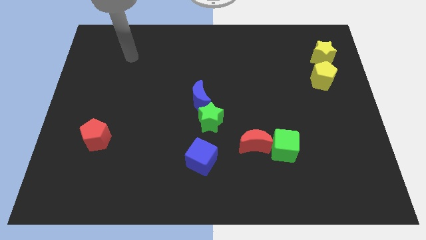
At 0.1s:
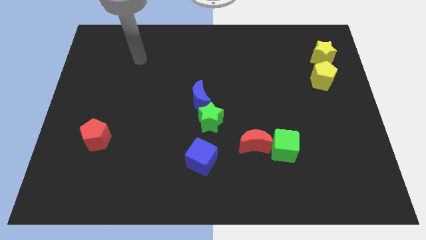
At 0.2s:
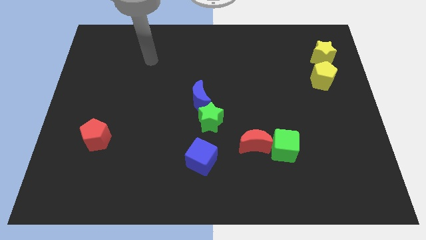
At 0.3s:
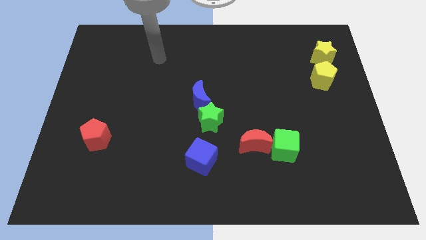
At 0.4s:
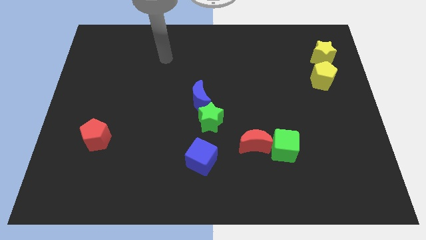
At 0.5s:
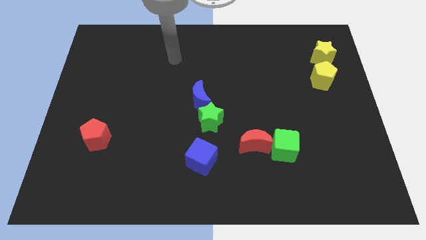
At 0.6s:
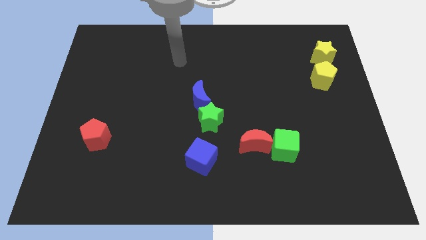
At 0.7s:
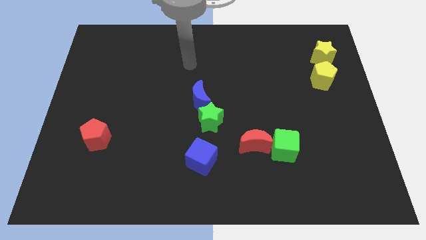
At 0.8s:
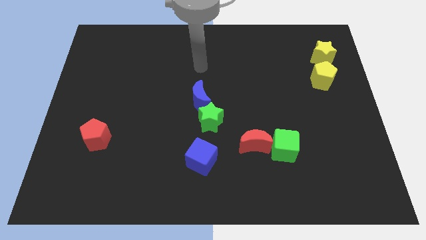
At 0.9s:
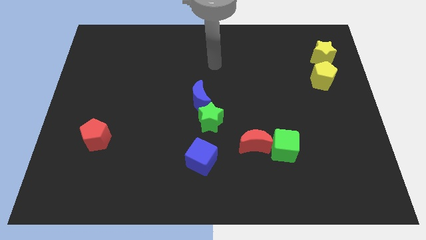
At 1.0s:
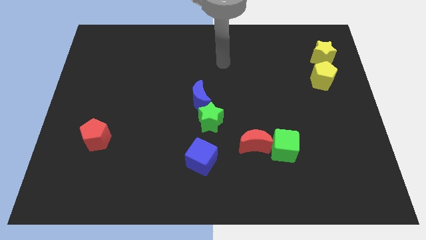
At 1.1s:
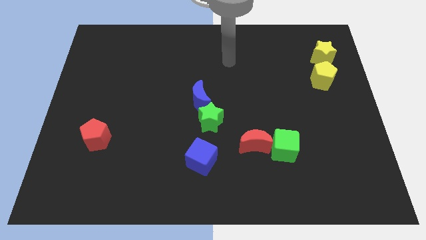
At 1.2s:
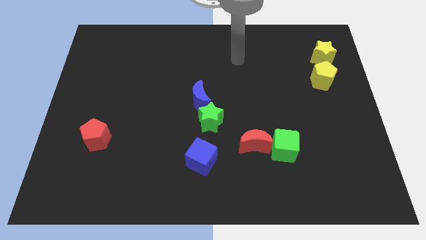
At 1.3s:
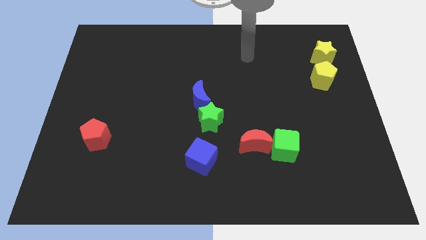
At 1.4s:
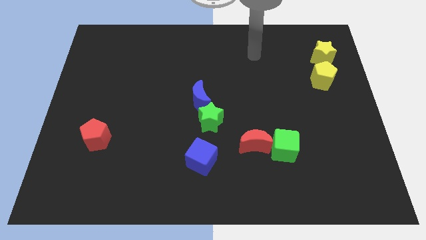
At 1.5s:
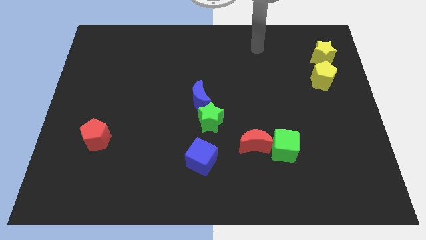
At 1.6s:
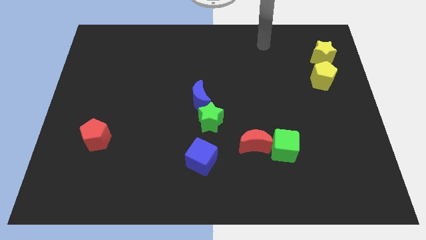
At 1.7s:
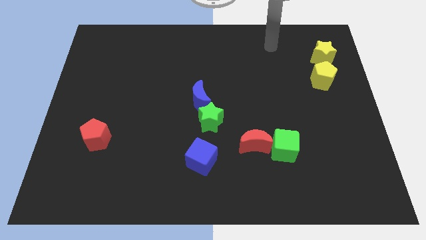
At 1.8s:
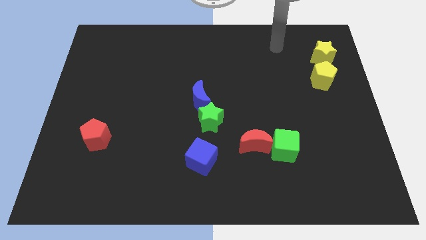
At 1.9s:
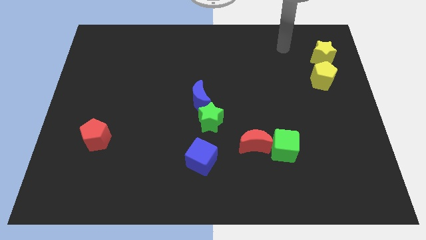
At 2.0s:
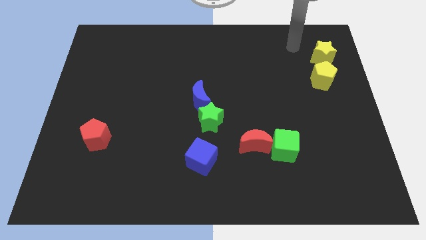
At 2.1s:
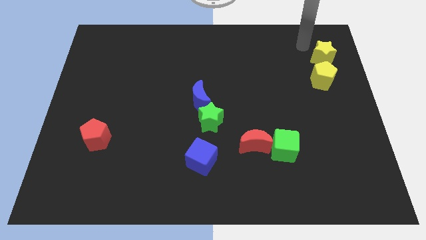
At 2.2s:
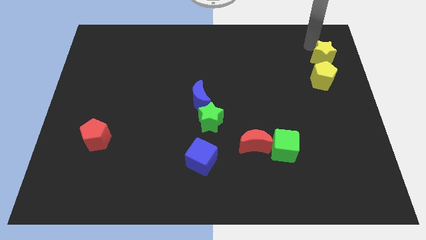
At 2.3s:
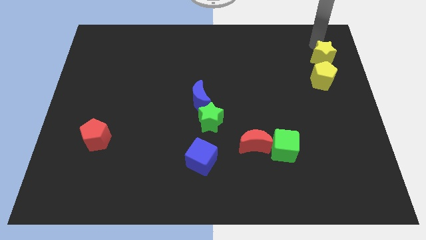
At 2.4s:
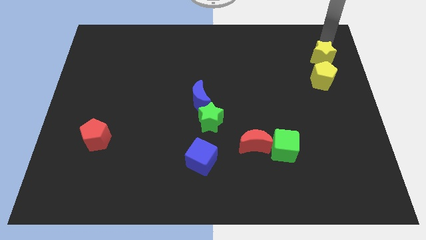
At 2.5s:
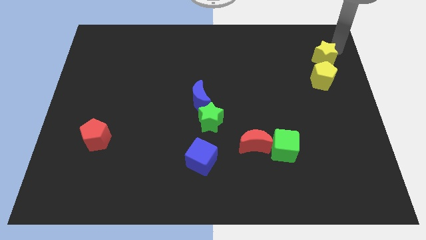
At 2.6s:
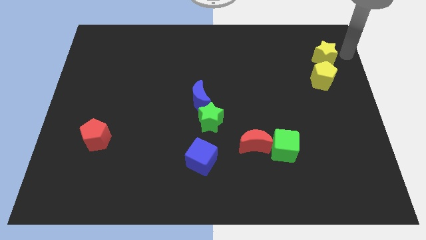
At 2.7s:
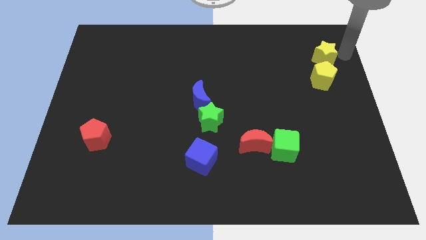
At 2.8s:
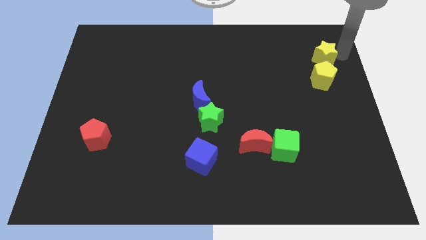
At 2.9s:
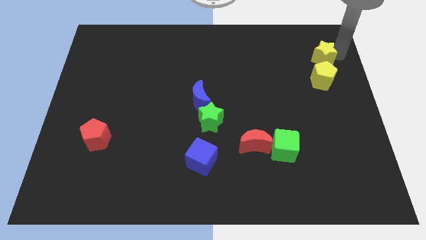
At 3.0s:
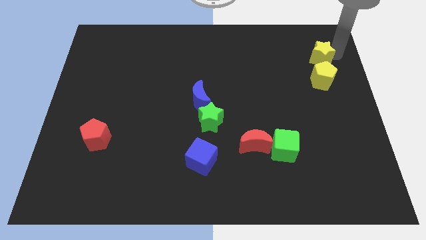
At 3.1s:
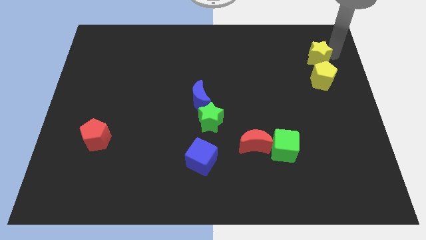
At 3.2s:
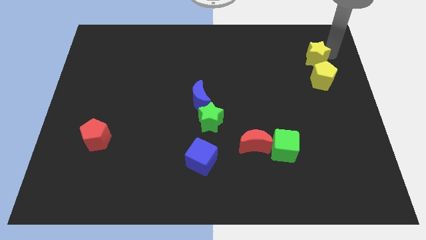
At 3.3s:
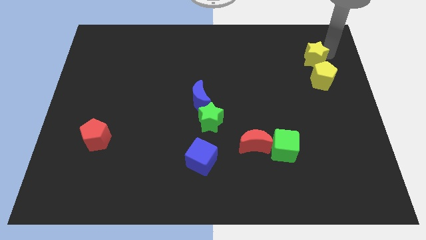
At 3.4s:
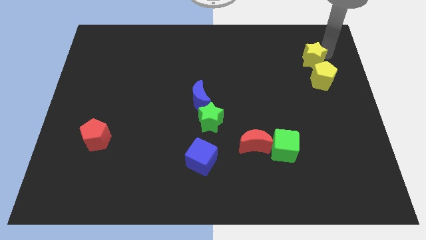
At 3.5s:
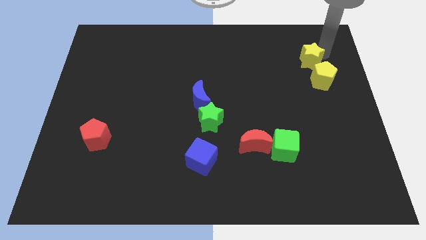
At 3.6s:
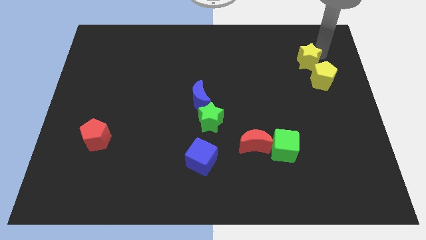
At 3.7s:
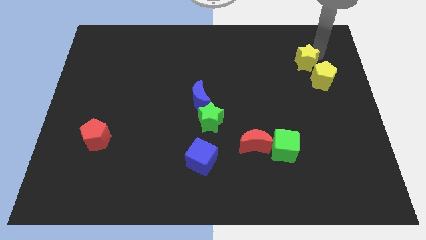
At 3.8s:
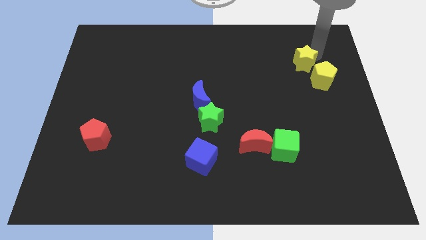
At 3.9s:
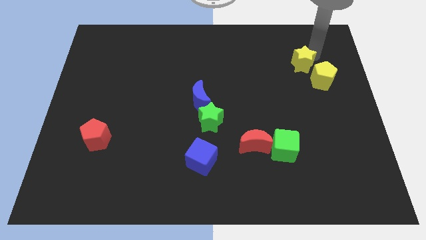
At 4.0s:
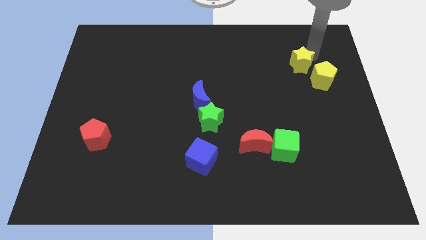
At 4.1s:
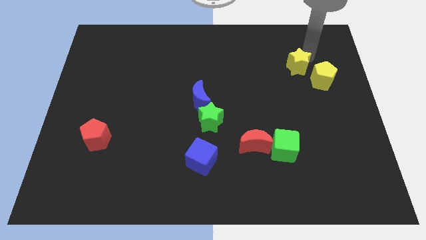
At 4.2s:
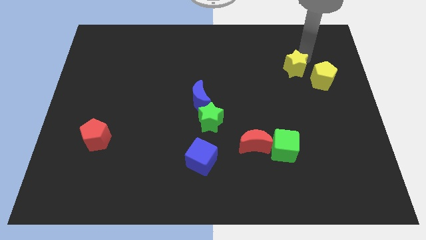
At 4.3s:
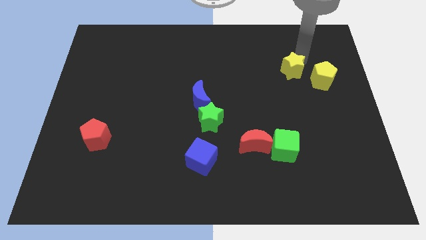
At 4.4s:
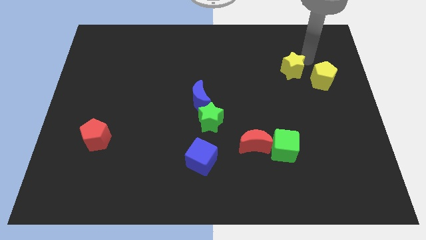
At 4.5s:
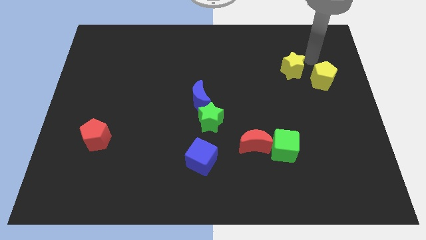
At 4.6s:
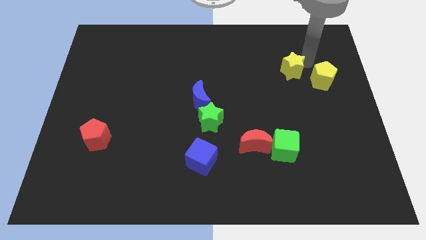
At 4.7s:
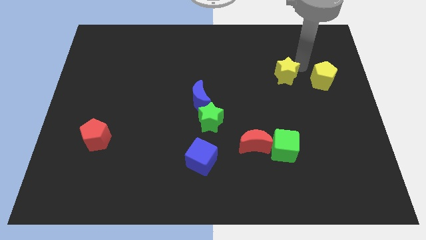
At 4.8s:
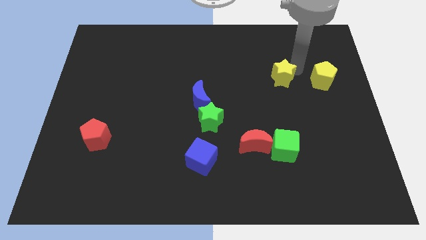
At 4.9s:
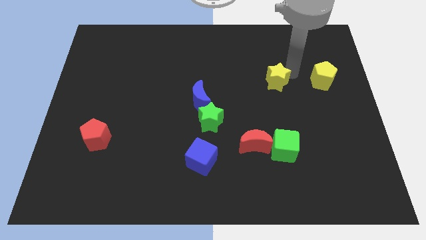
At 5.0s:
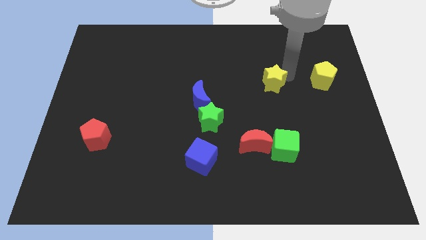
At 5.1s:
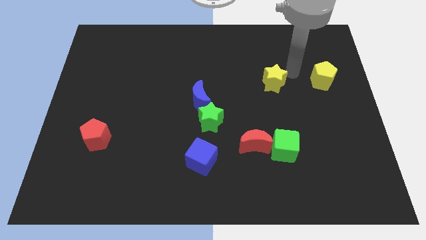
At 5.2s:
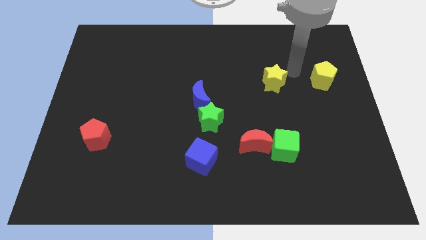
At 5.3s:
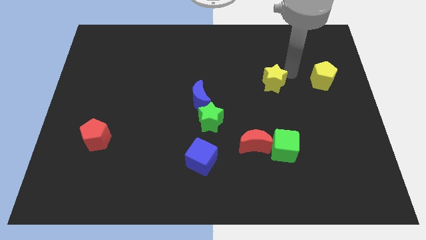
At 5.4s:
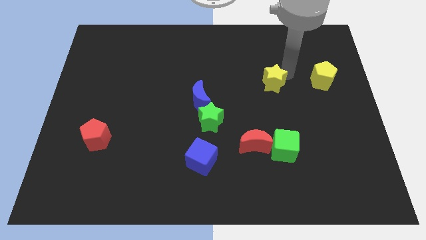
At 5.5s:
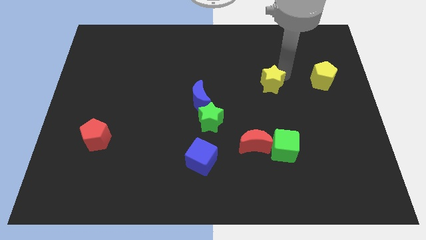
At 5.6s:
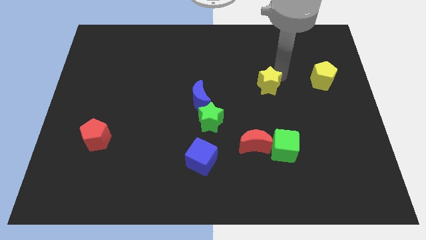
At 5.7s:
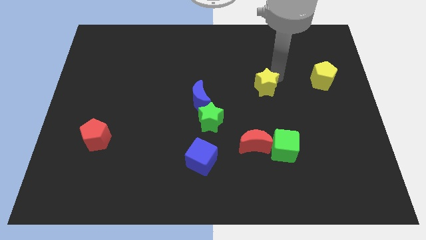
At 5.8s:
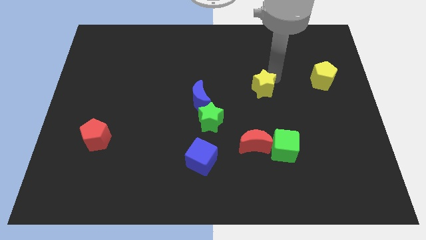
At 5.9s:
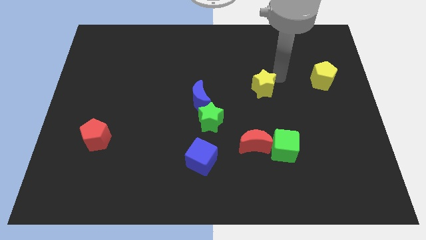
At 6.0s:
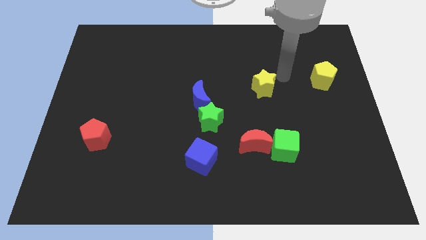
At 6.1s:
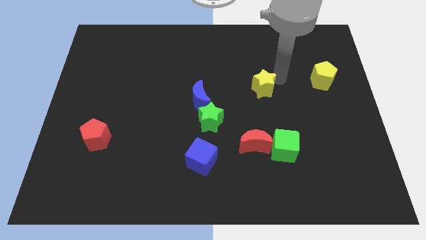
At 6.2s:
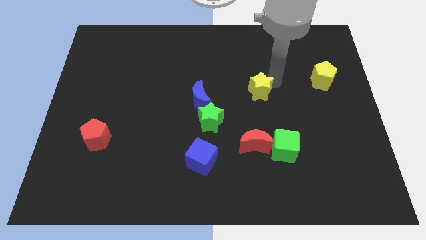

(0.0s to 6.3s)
move the yellow star right of the blue moon

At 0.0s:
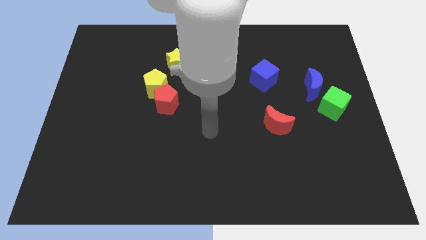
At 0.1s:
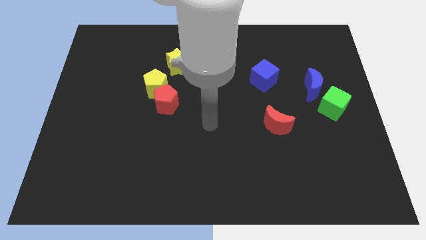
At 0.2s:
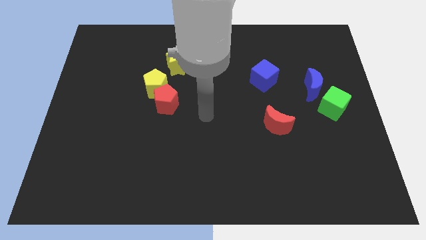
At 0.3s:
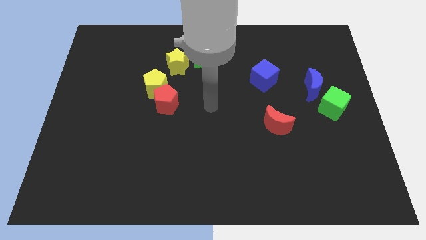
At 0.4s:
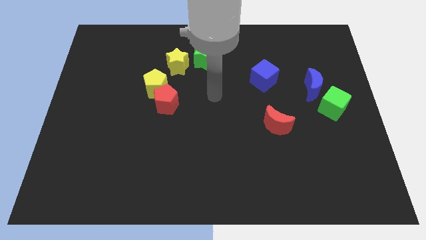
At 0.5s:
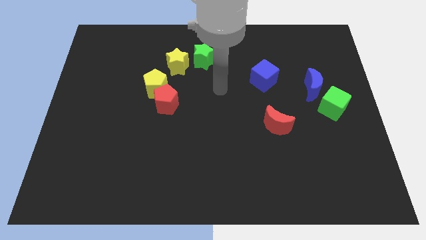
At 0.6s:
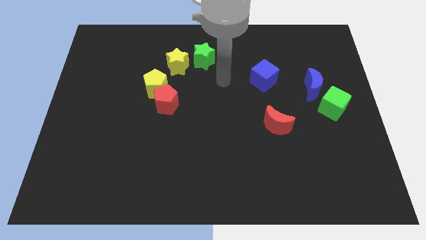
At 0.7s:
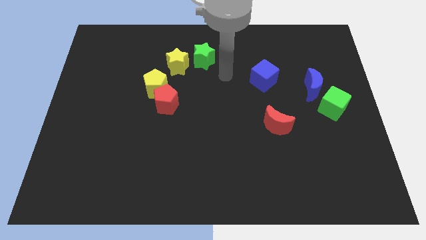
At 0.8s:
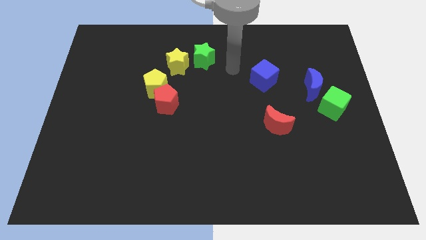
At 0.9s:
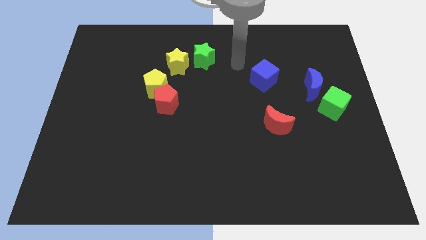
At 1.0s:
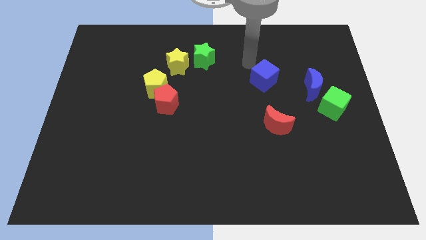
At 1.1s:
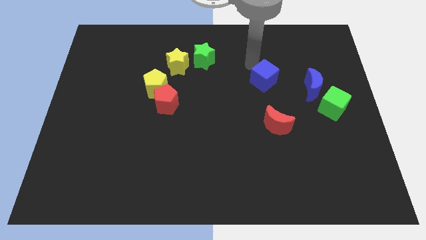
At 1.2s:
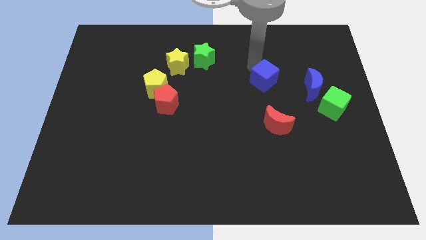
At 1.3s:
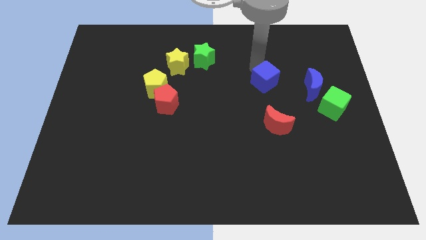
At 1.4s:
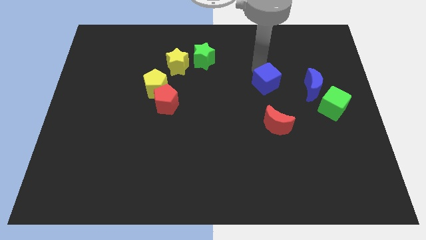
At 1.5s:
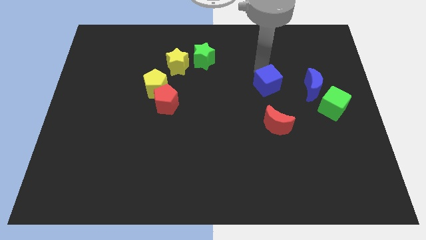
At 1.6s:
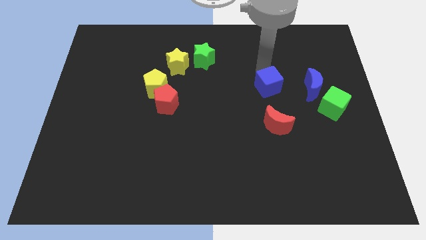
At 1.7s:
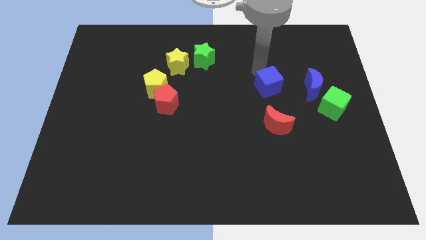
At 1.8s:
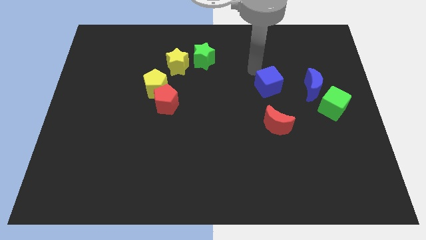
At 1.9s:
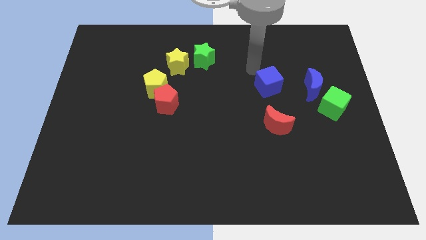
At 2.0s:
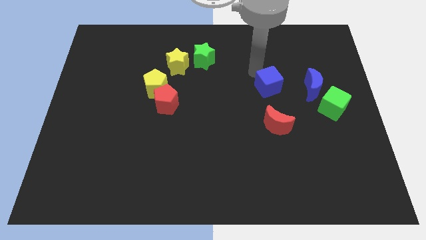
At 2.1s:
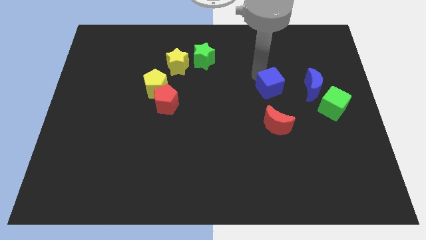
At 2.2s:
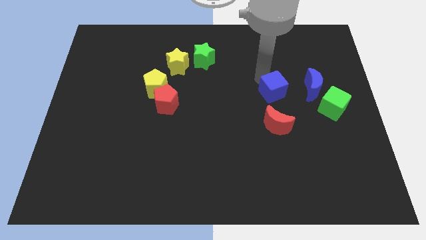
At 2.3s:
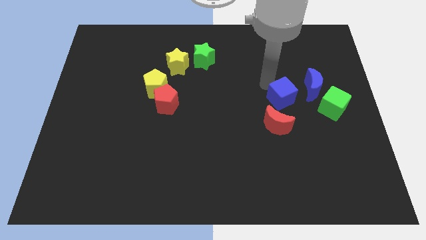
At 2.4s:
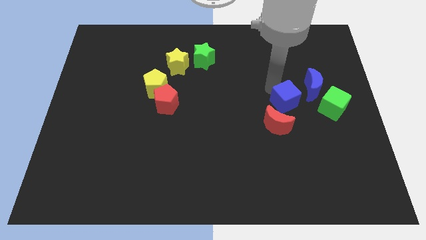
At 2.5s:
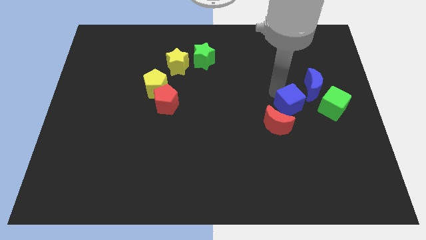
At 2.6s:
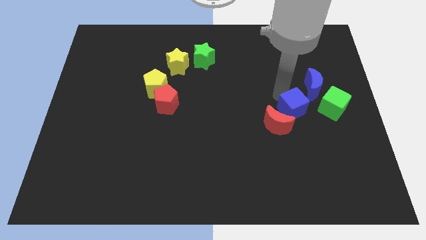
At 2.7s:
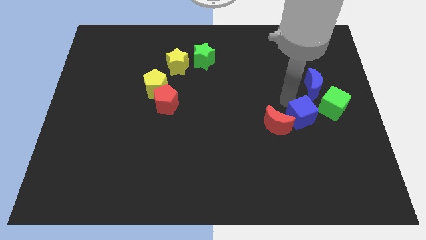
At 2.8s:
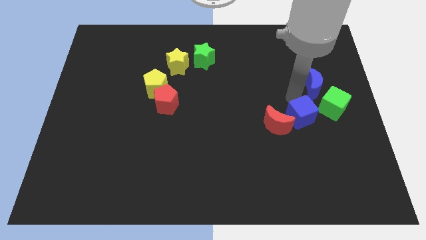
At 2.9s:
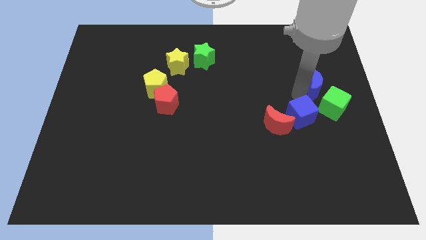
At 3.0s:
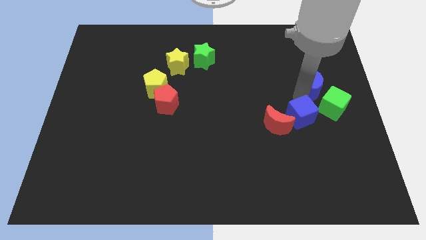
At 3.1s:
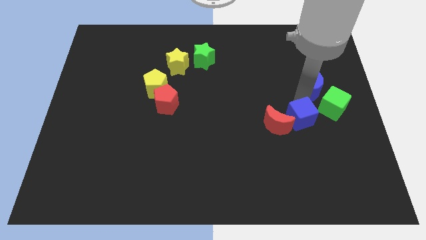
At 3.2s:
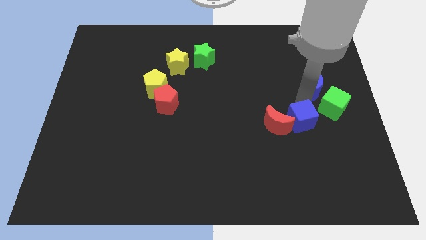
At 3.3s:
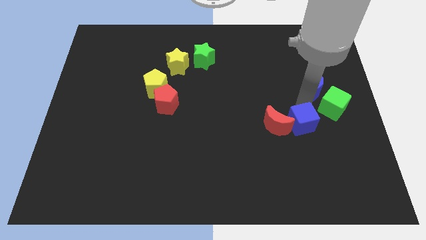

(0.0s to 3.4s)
put the blue cube diagonally down and to the right of the red moon
